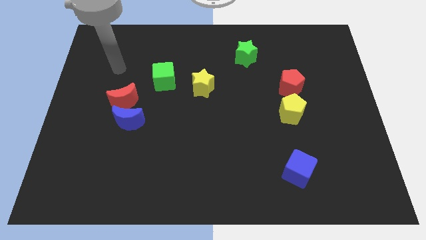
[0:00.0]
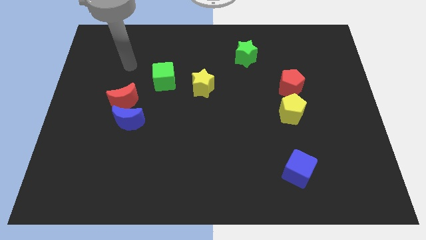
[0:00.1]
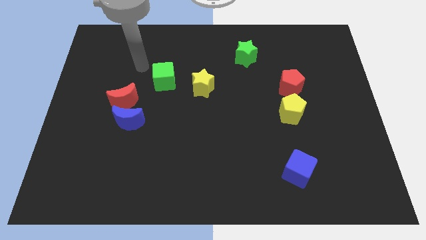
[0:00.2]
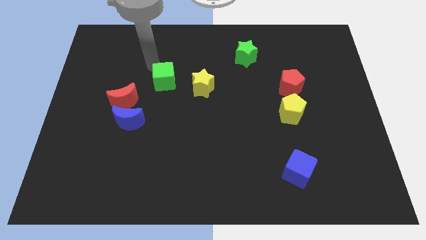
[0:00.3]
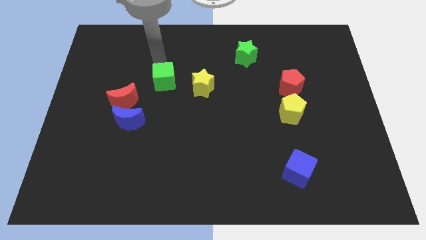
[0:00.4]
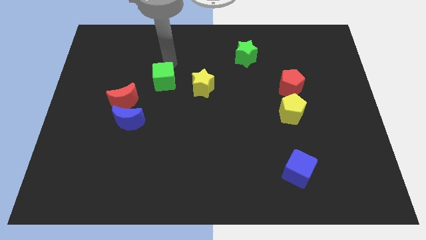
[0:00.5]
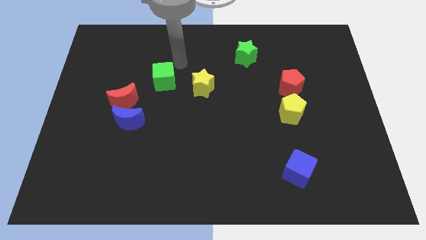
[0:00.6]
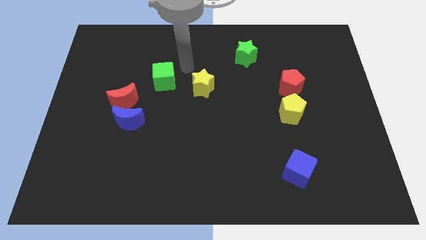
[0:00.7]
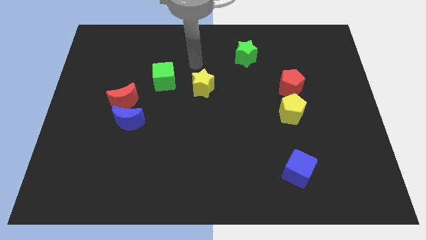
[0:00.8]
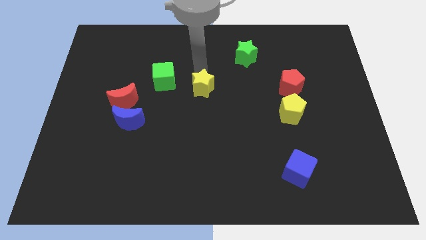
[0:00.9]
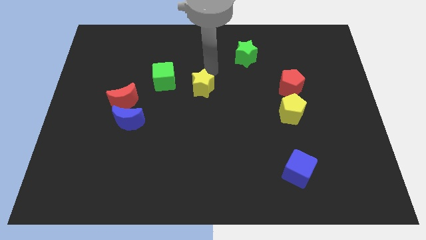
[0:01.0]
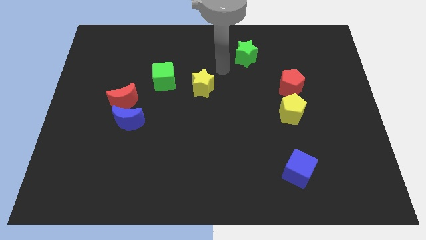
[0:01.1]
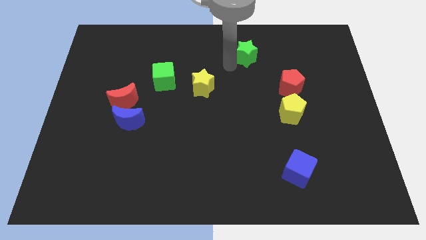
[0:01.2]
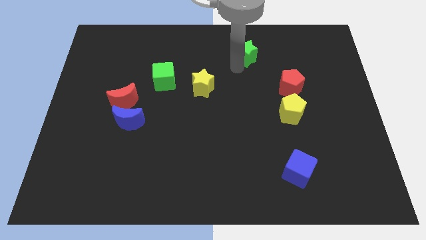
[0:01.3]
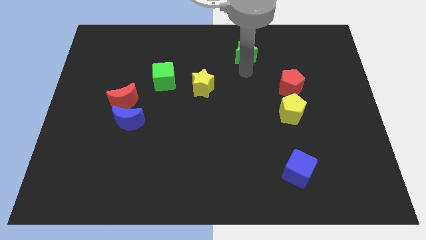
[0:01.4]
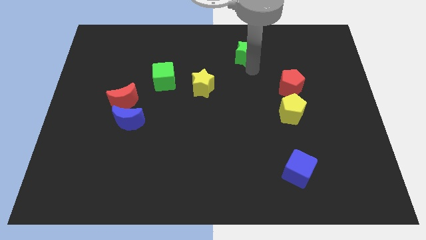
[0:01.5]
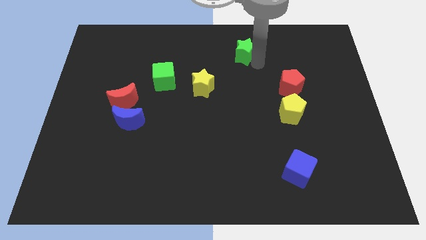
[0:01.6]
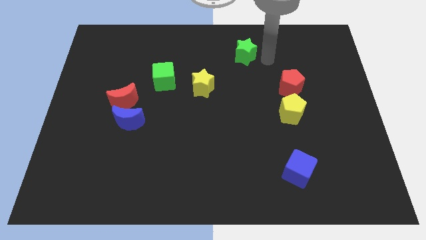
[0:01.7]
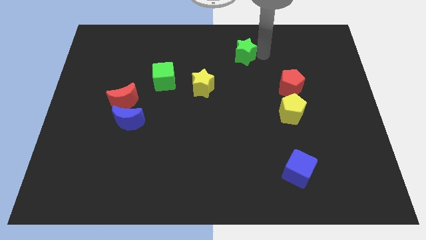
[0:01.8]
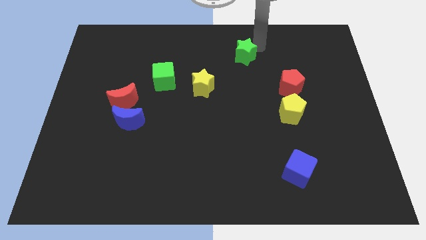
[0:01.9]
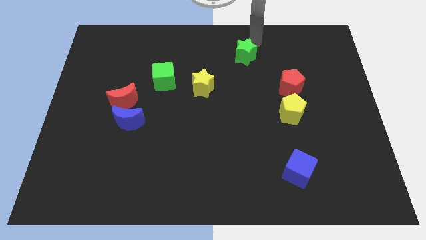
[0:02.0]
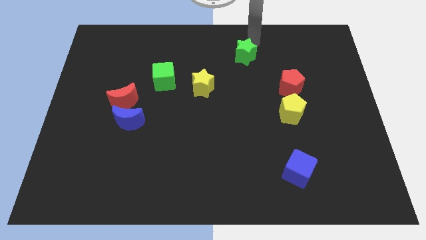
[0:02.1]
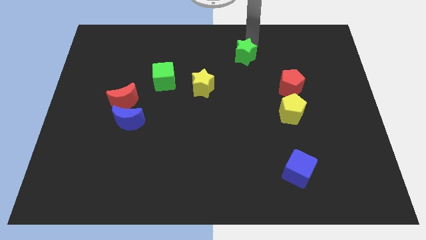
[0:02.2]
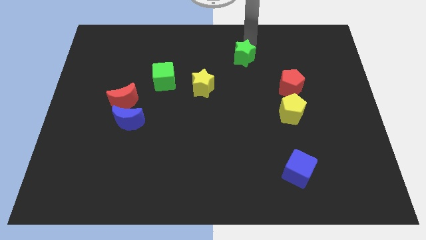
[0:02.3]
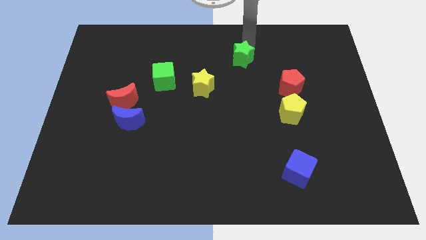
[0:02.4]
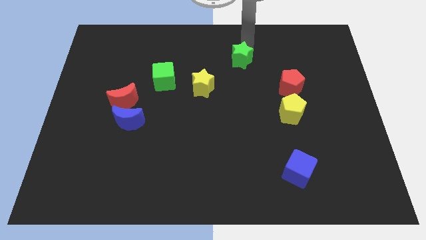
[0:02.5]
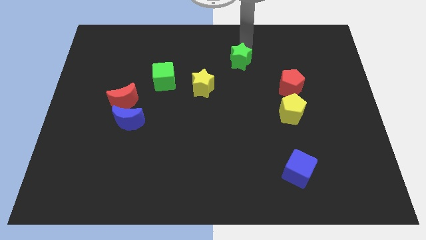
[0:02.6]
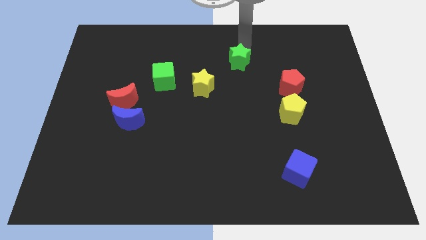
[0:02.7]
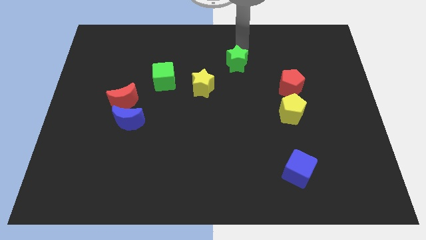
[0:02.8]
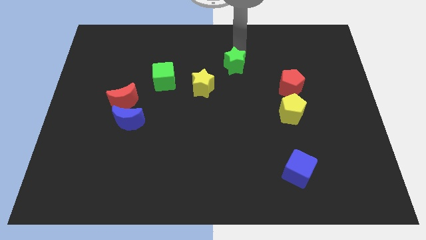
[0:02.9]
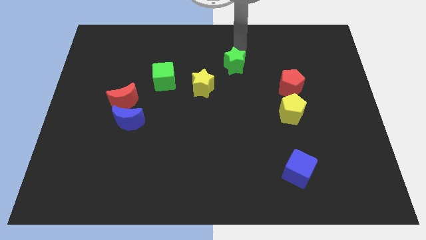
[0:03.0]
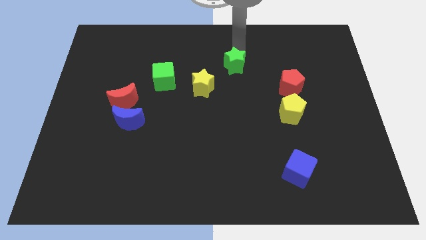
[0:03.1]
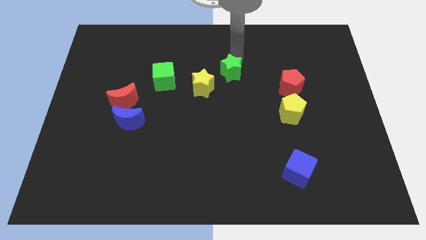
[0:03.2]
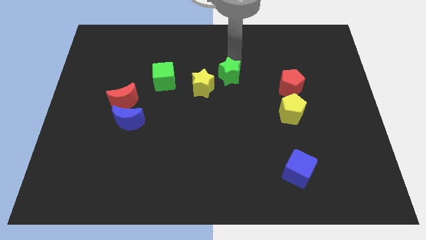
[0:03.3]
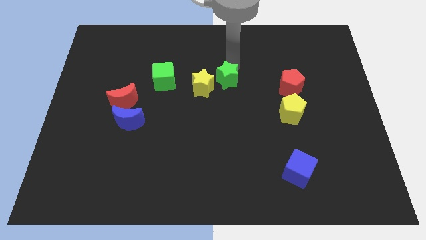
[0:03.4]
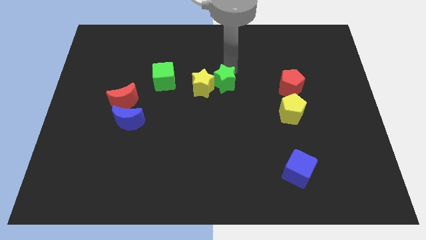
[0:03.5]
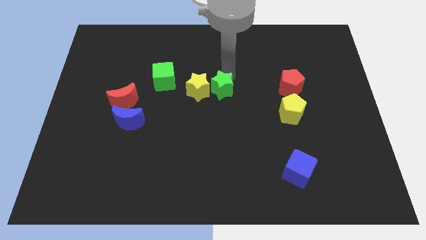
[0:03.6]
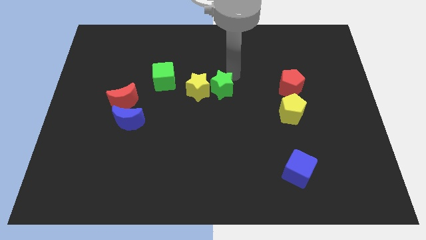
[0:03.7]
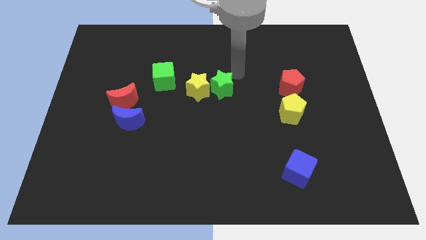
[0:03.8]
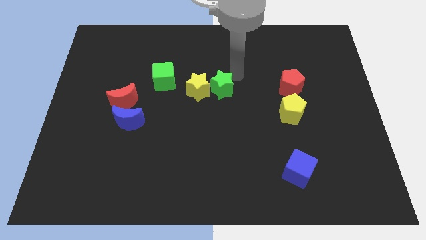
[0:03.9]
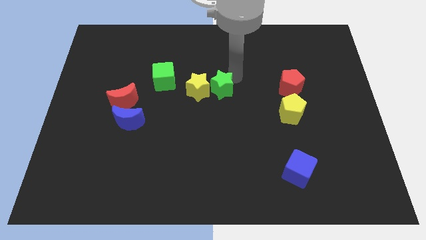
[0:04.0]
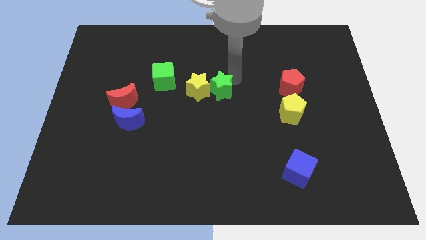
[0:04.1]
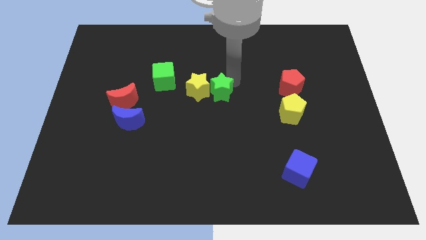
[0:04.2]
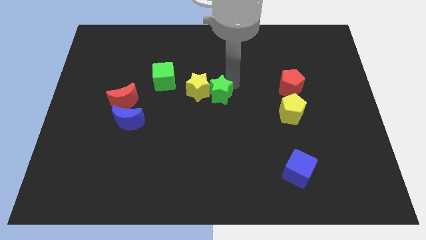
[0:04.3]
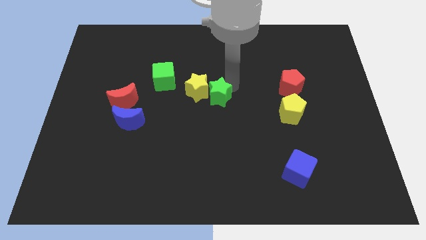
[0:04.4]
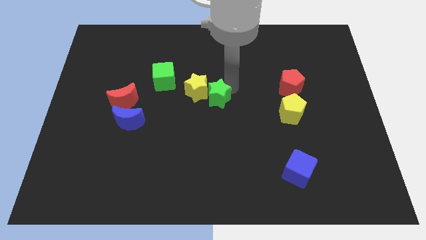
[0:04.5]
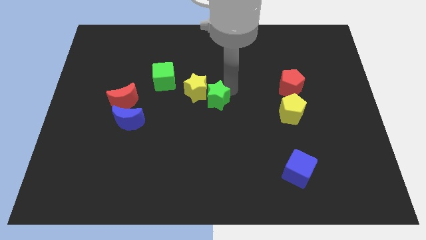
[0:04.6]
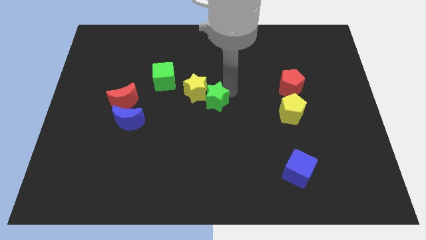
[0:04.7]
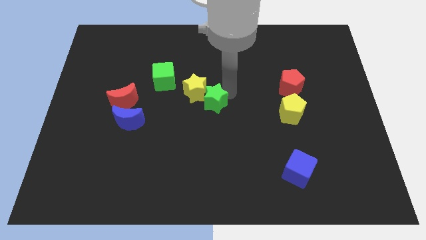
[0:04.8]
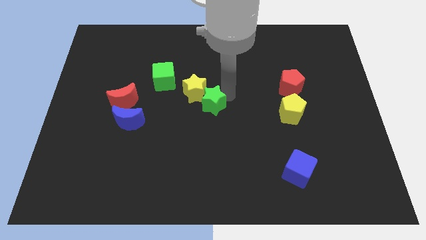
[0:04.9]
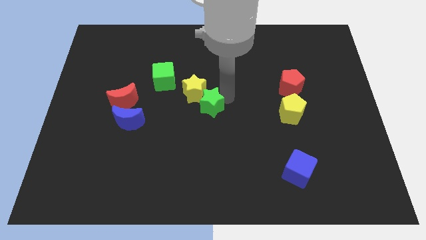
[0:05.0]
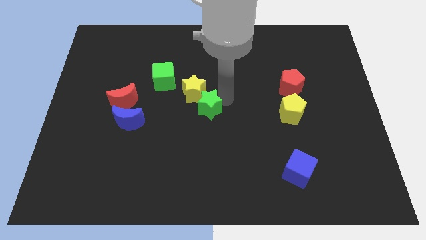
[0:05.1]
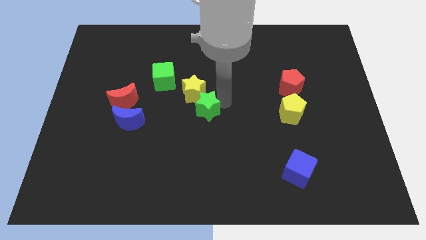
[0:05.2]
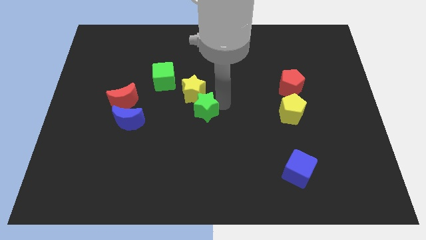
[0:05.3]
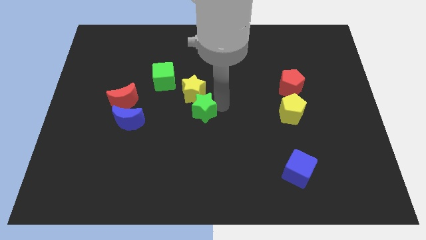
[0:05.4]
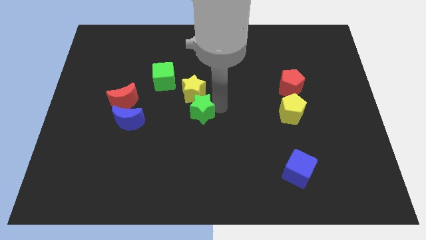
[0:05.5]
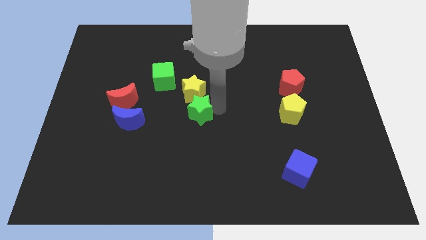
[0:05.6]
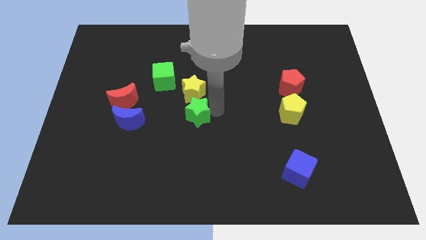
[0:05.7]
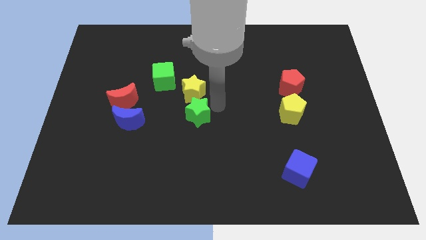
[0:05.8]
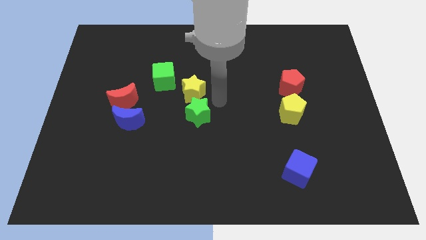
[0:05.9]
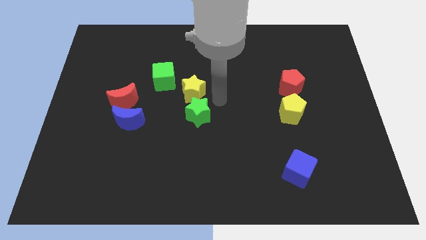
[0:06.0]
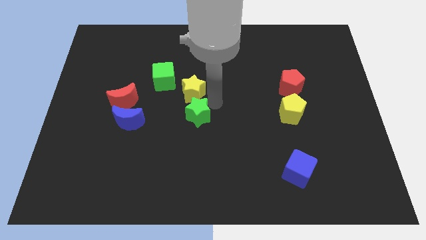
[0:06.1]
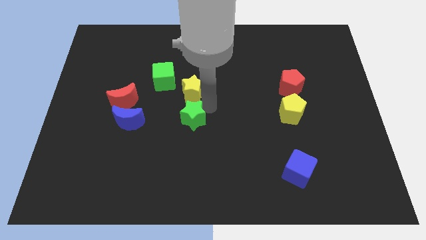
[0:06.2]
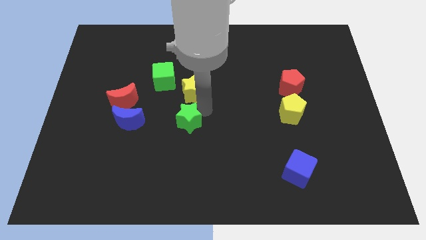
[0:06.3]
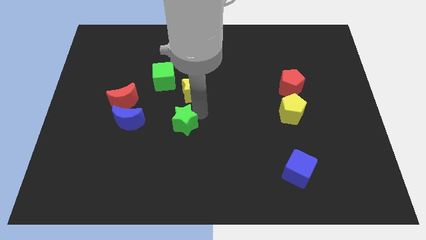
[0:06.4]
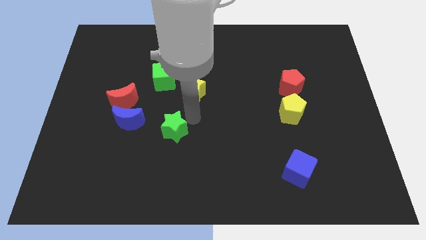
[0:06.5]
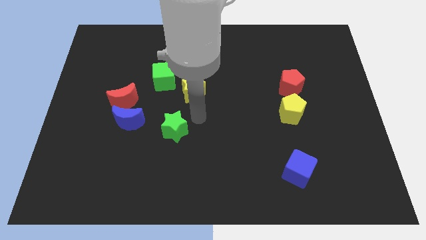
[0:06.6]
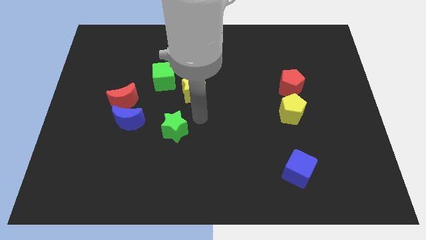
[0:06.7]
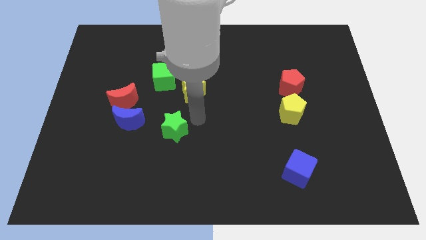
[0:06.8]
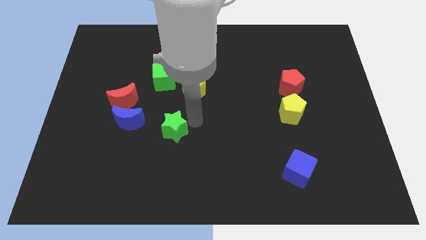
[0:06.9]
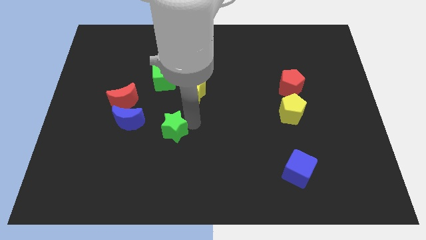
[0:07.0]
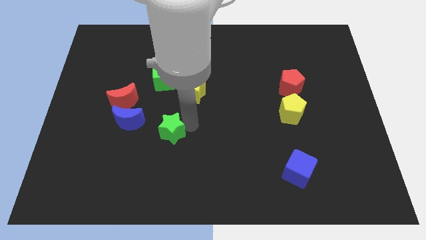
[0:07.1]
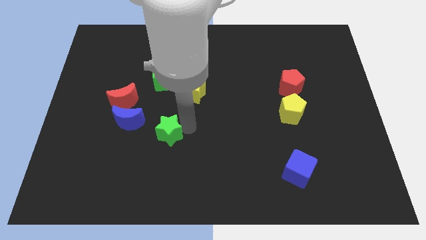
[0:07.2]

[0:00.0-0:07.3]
push the green star diagonally down and to the right of the blue moon

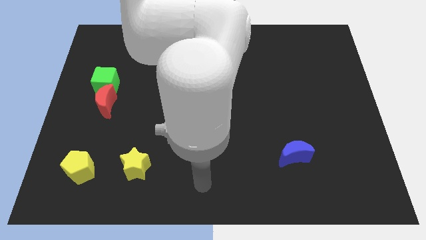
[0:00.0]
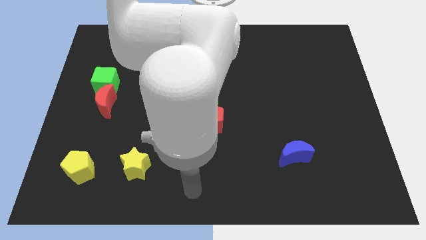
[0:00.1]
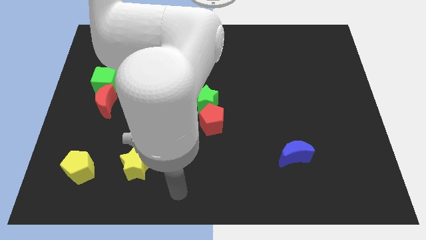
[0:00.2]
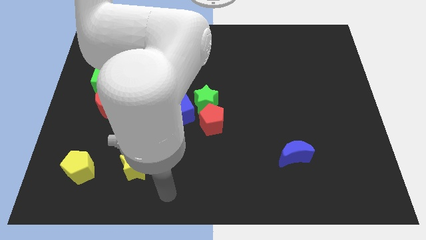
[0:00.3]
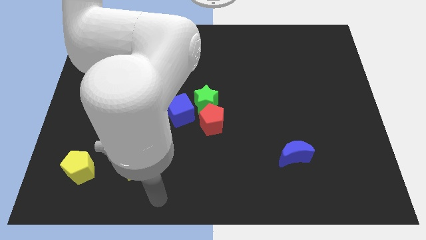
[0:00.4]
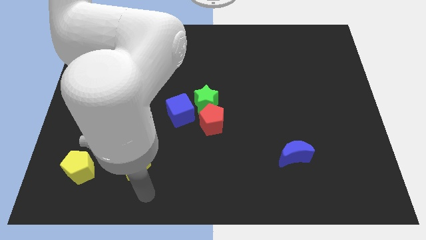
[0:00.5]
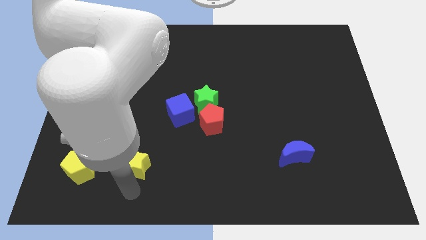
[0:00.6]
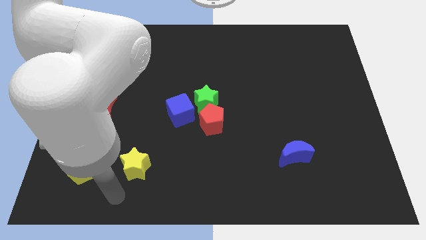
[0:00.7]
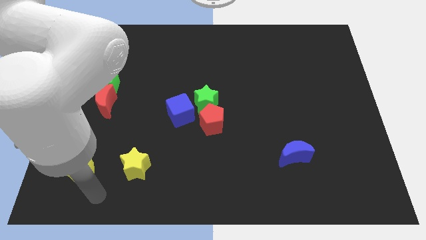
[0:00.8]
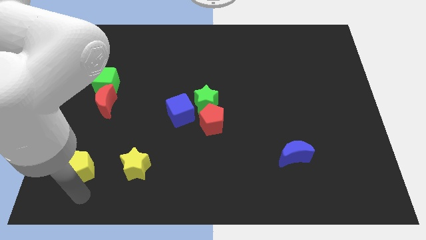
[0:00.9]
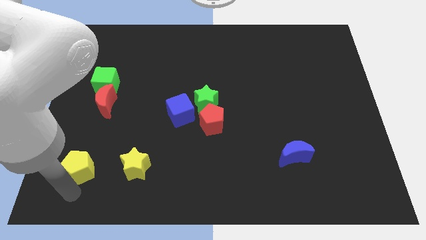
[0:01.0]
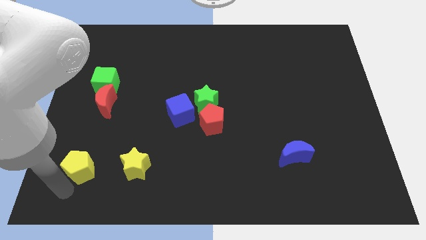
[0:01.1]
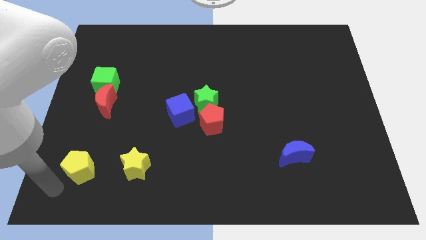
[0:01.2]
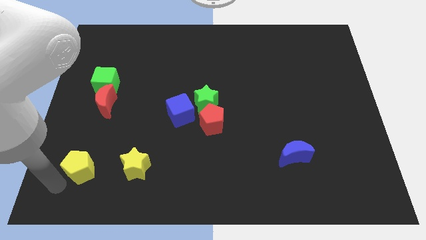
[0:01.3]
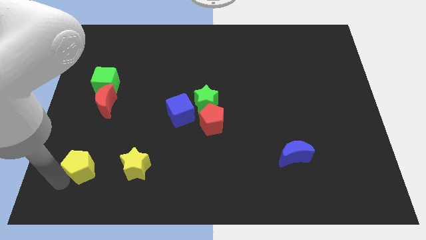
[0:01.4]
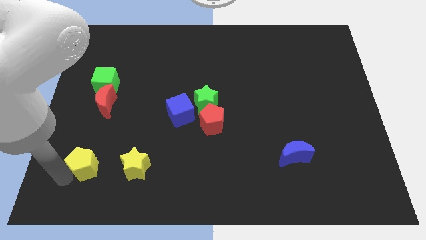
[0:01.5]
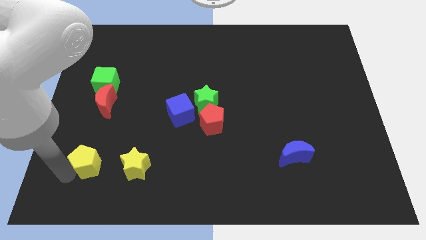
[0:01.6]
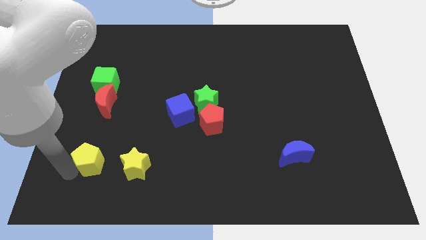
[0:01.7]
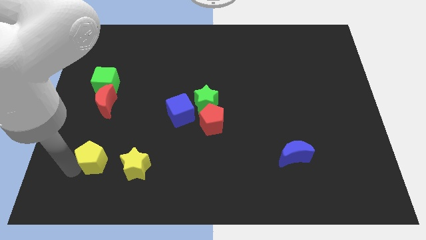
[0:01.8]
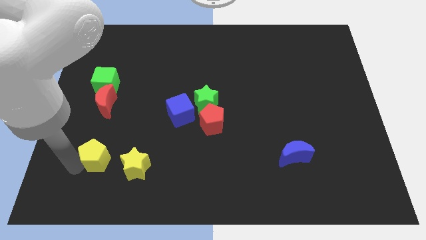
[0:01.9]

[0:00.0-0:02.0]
push the yellow pentagon diagonally up and to the left of the yellow star
